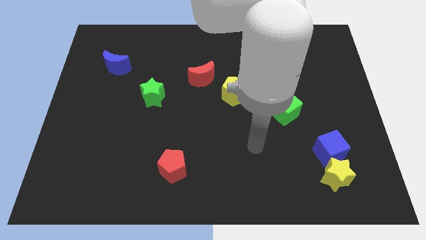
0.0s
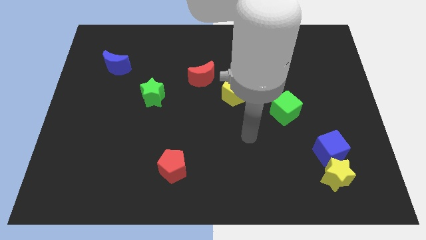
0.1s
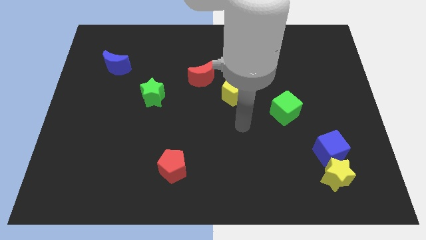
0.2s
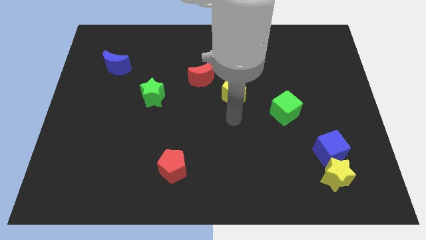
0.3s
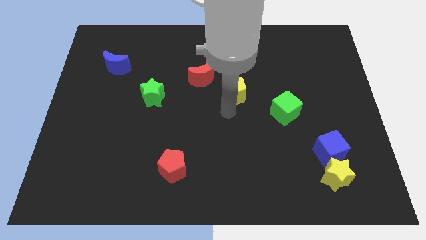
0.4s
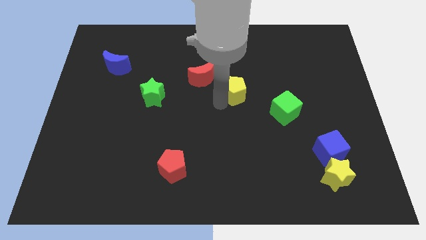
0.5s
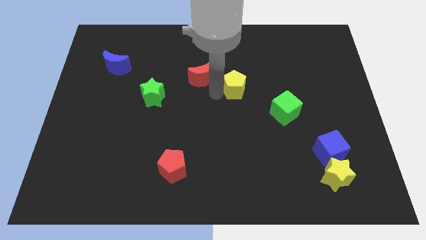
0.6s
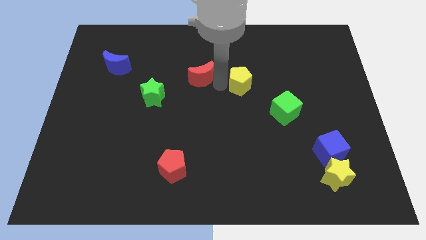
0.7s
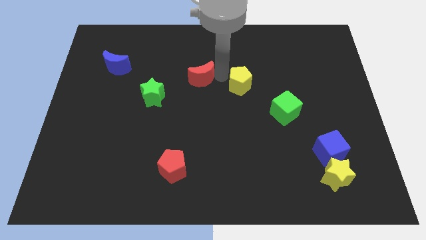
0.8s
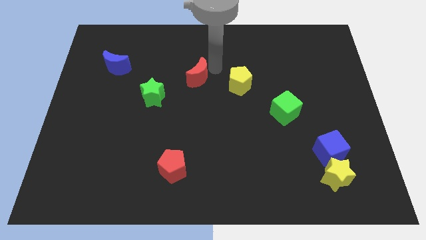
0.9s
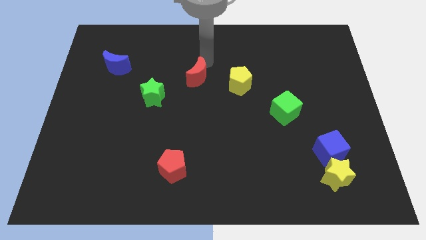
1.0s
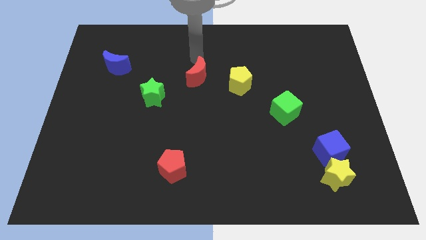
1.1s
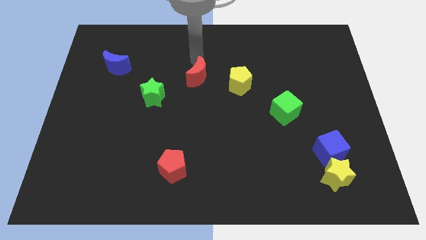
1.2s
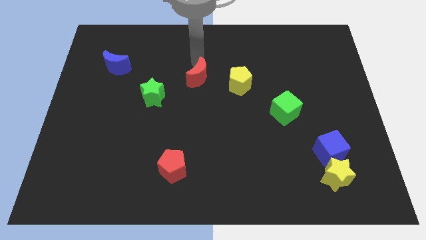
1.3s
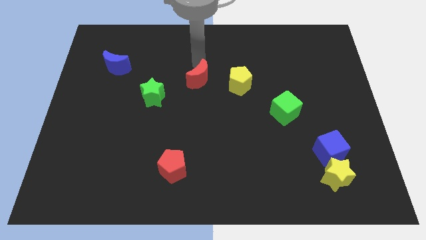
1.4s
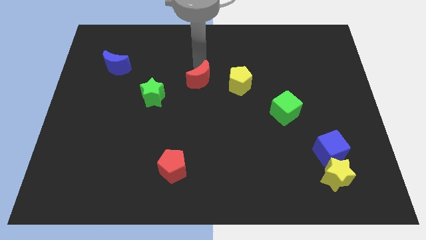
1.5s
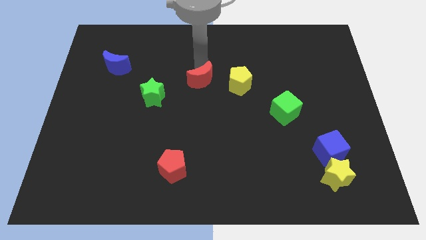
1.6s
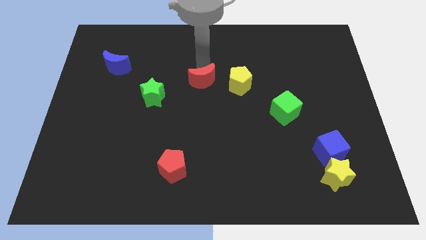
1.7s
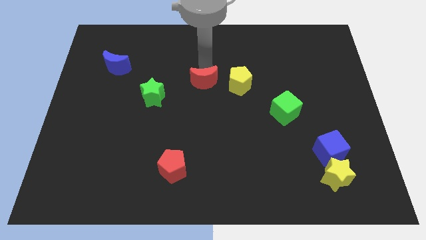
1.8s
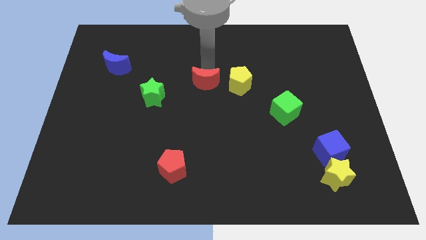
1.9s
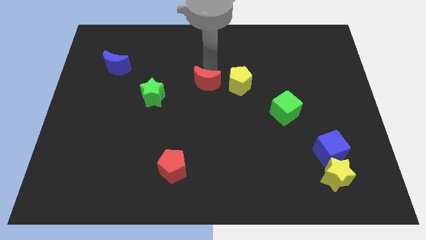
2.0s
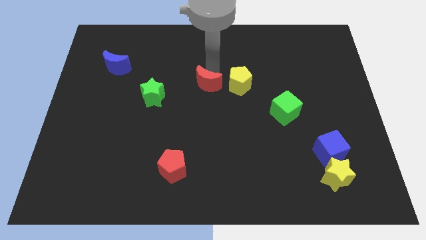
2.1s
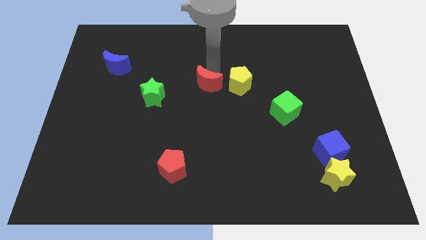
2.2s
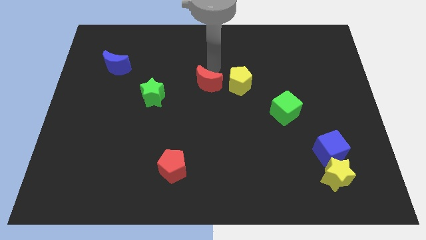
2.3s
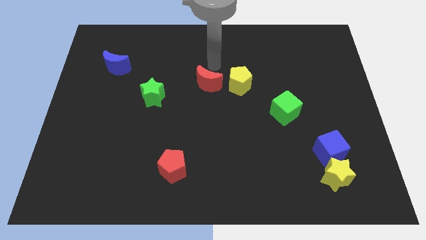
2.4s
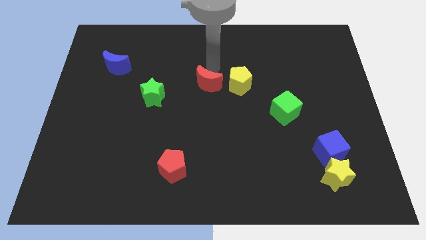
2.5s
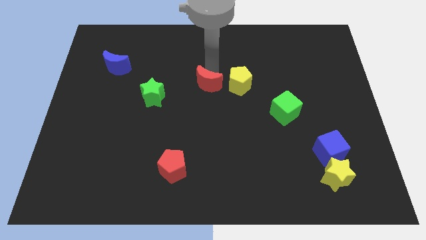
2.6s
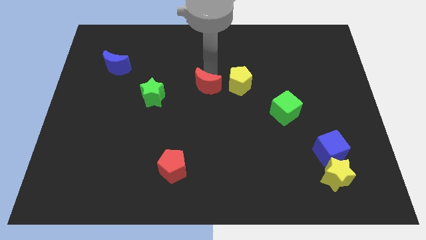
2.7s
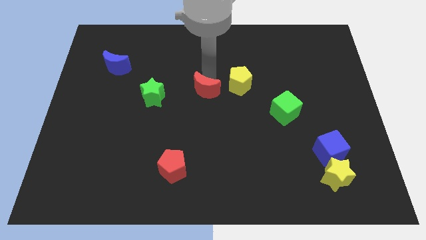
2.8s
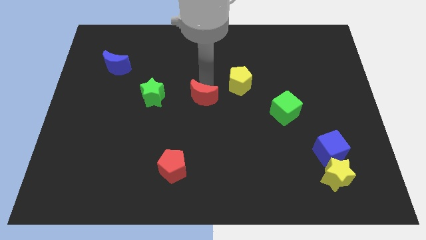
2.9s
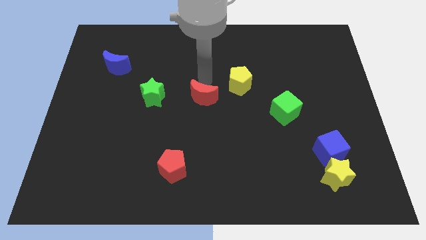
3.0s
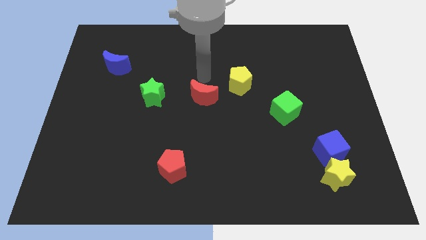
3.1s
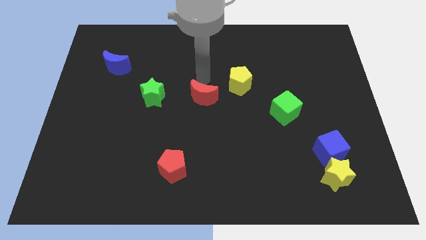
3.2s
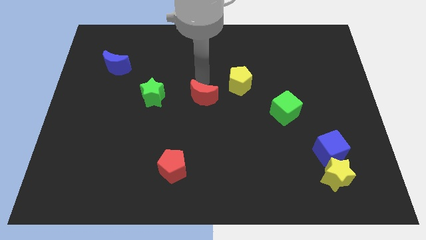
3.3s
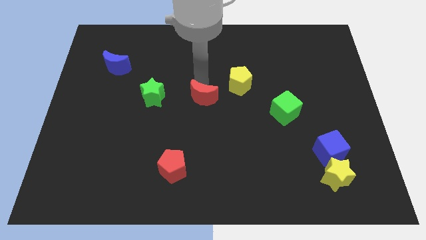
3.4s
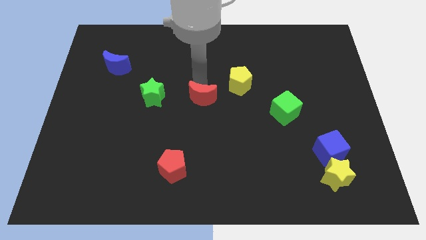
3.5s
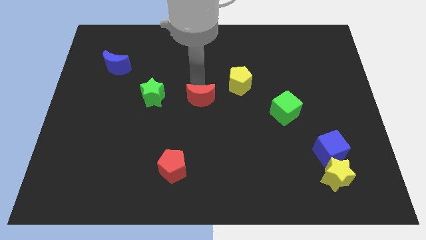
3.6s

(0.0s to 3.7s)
push the red moon a little bit downwards

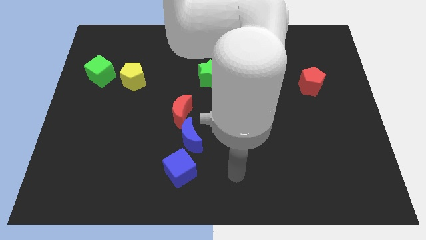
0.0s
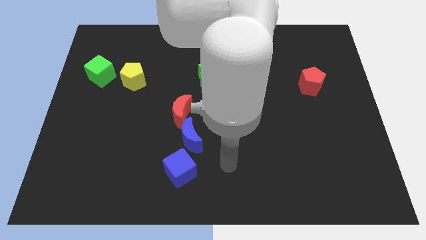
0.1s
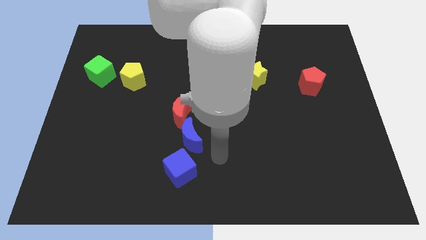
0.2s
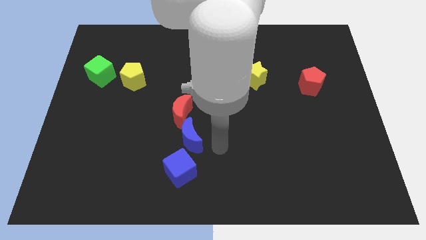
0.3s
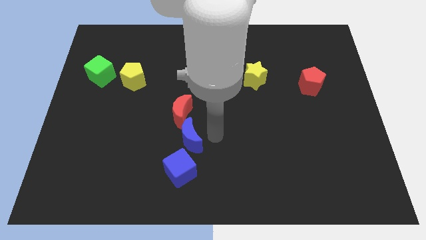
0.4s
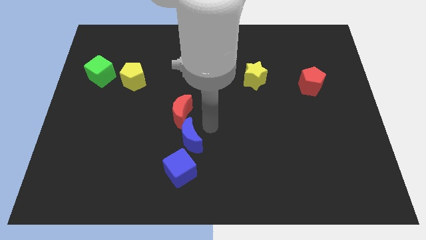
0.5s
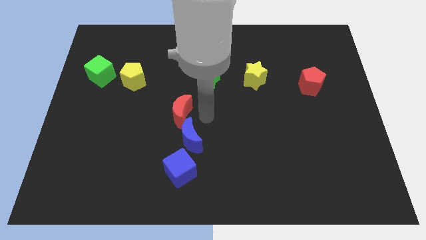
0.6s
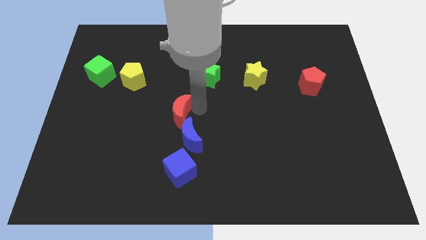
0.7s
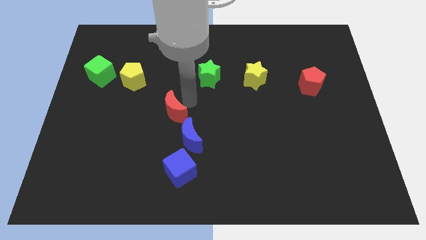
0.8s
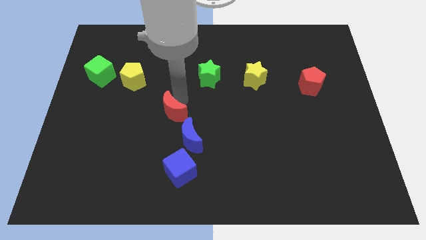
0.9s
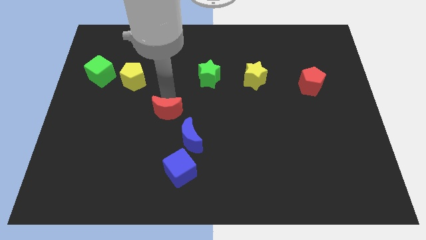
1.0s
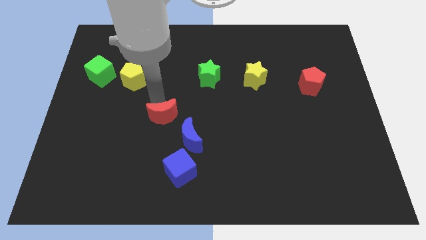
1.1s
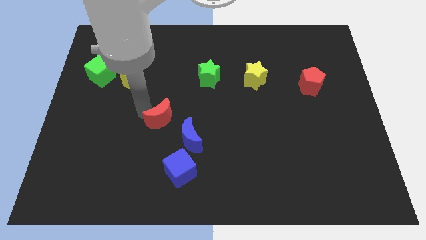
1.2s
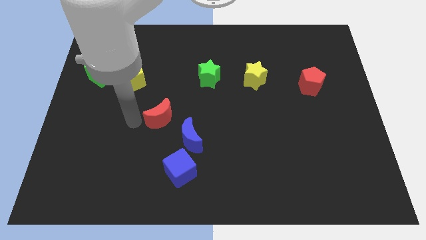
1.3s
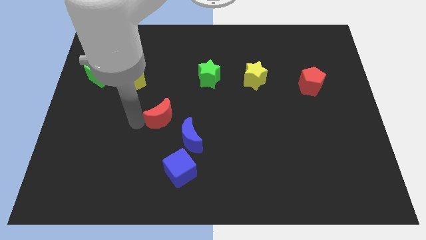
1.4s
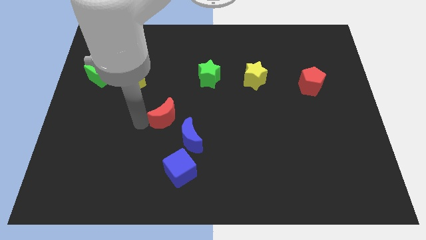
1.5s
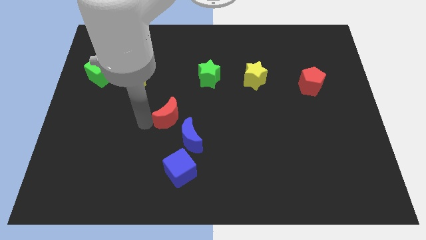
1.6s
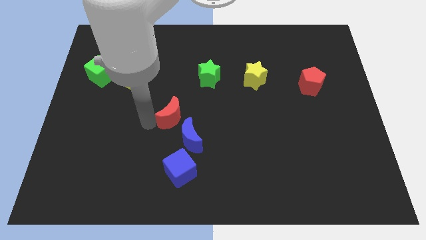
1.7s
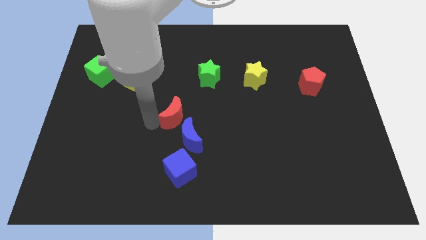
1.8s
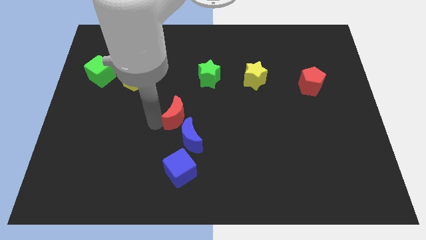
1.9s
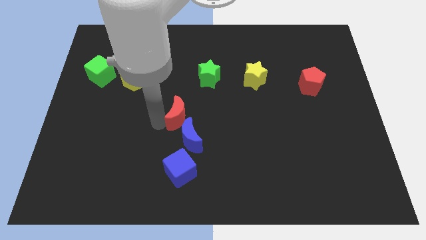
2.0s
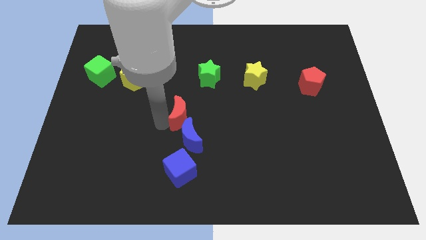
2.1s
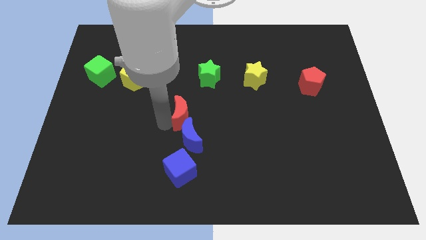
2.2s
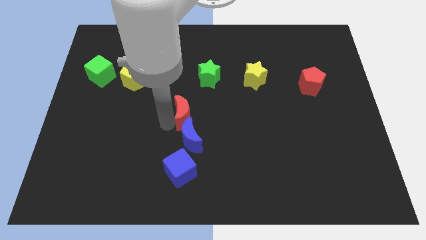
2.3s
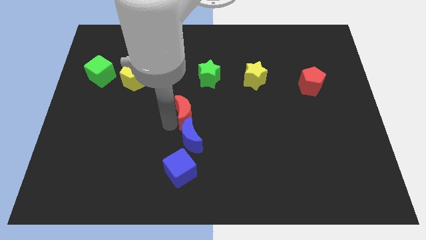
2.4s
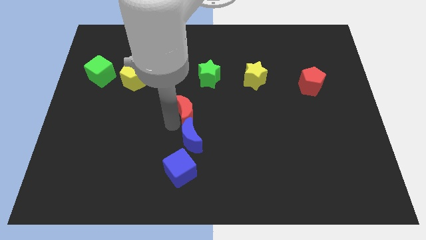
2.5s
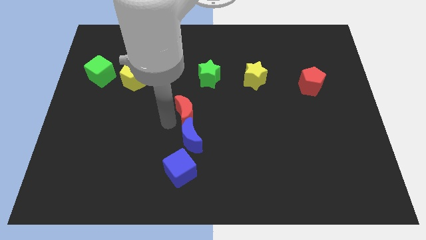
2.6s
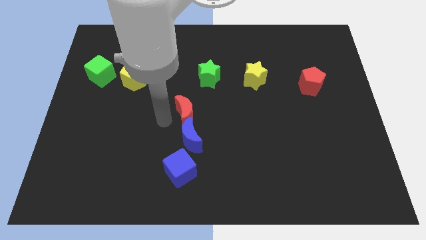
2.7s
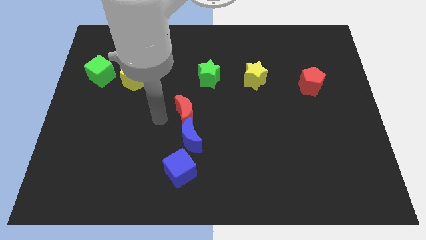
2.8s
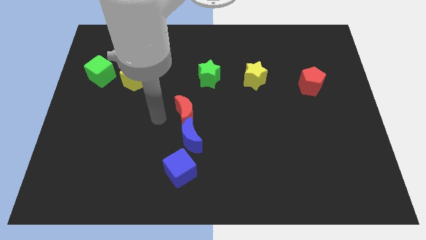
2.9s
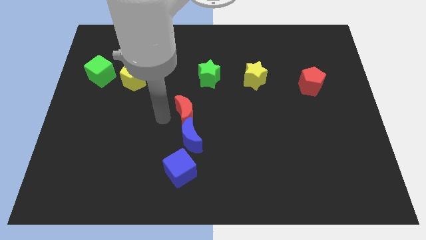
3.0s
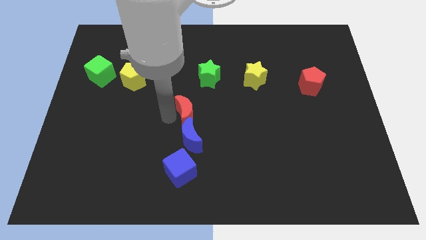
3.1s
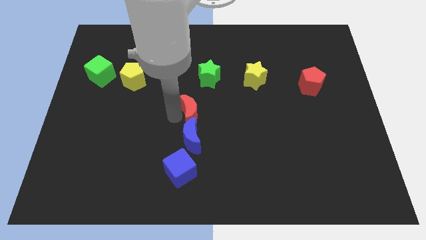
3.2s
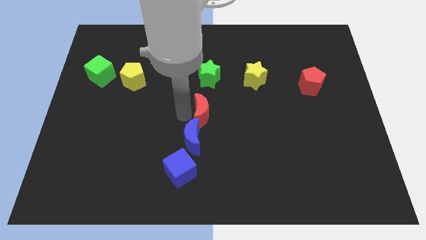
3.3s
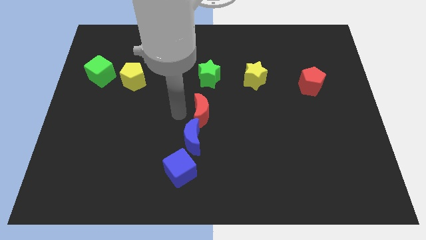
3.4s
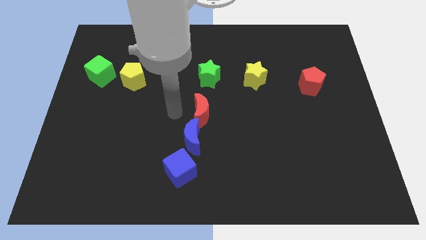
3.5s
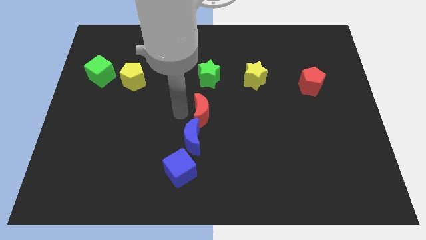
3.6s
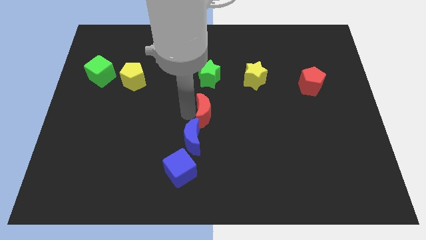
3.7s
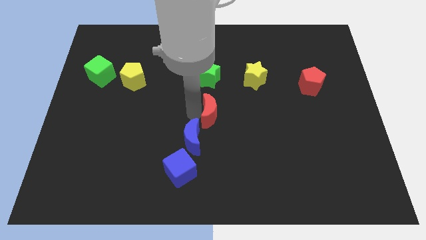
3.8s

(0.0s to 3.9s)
push the red moon to the right somewhat

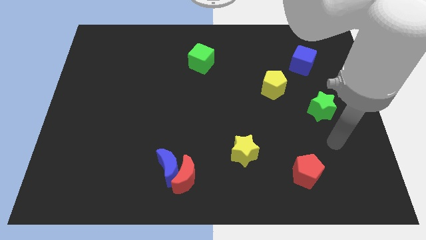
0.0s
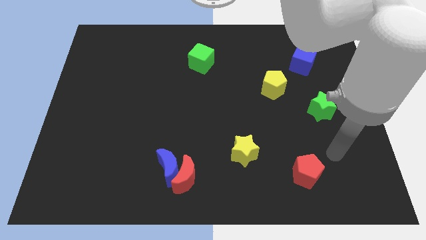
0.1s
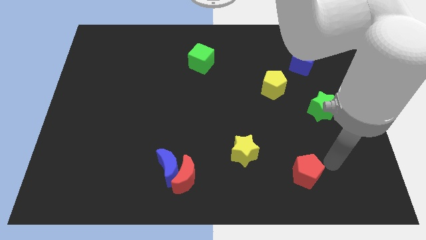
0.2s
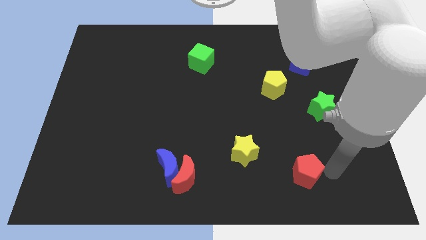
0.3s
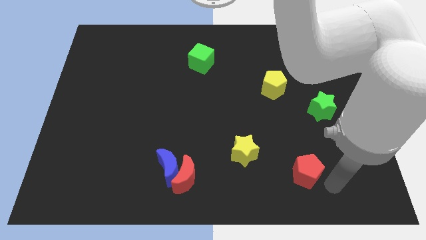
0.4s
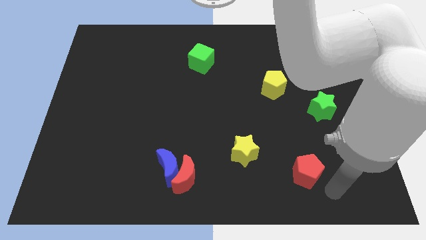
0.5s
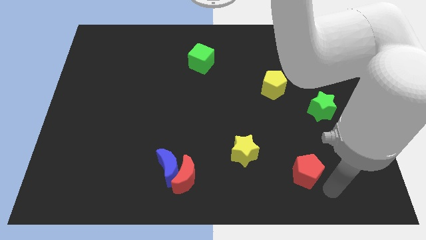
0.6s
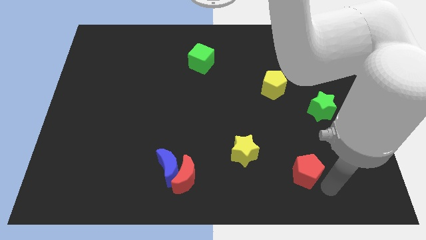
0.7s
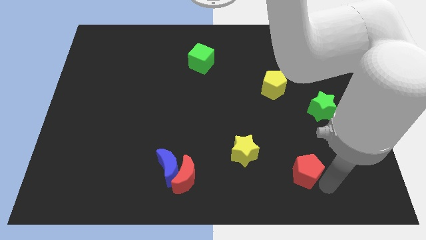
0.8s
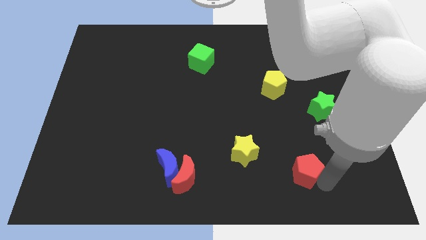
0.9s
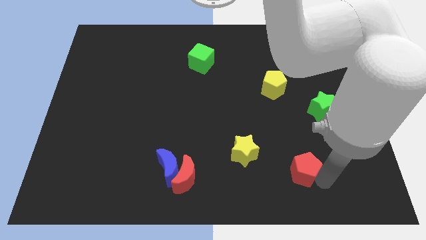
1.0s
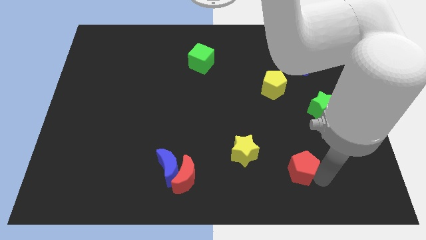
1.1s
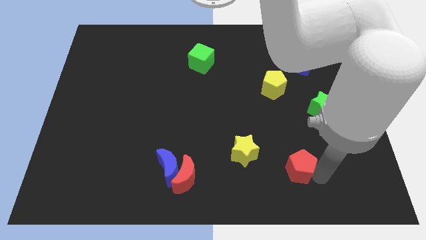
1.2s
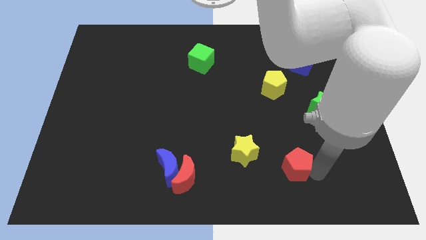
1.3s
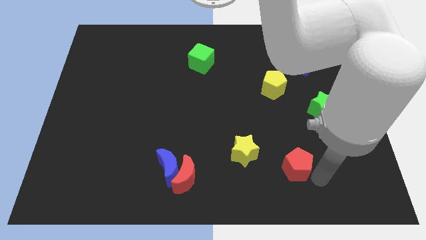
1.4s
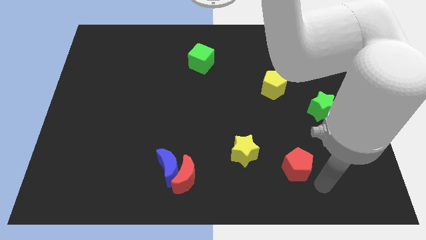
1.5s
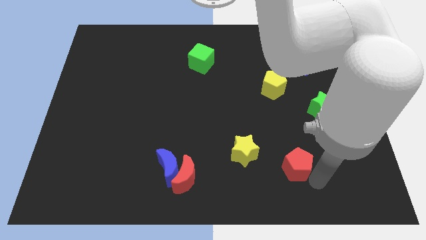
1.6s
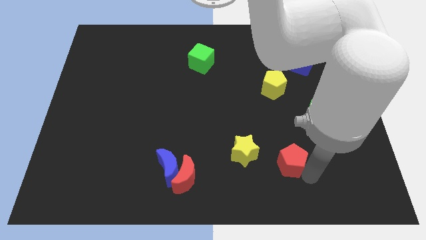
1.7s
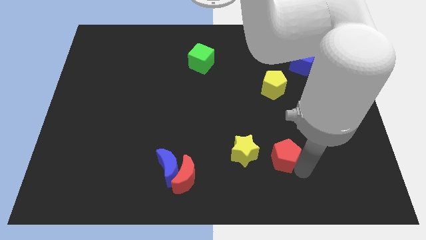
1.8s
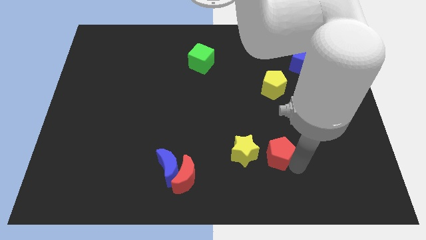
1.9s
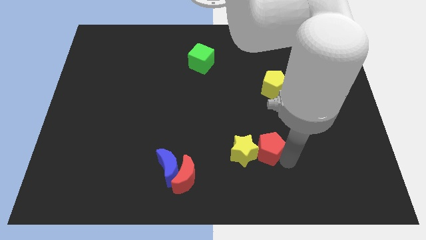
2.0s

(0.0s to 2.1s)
slightly slide the red pentagon diagonally up and left
